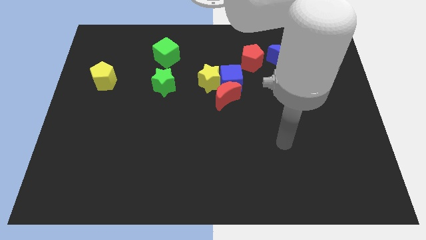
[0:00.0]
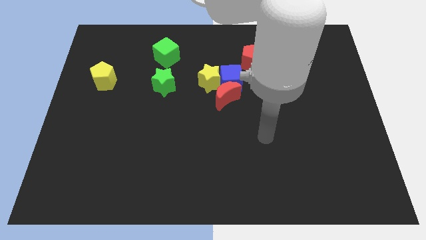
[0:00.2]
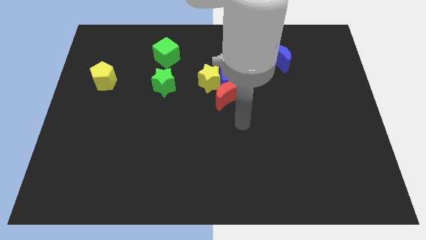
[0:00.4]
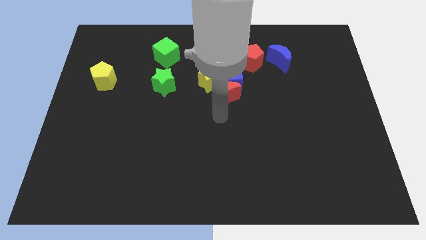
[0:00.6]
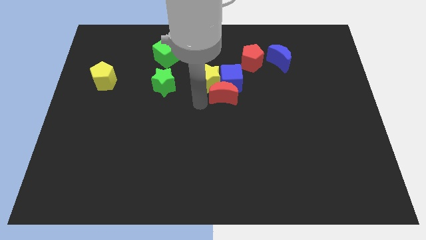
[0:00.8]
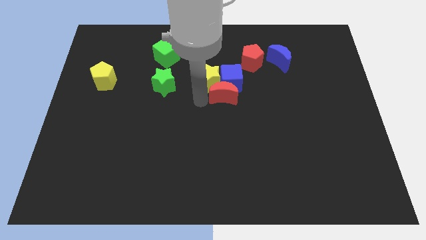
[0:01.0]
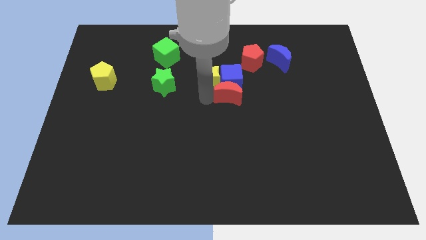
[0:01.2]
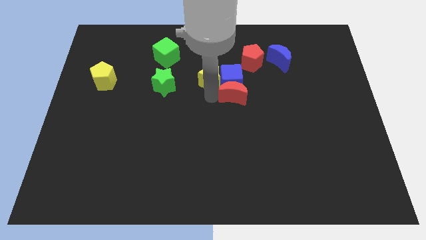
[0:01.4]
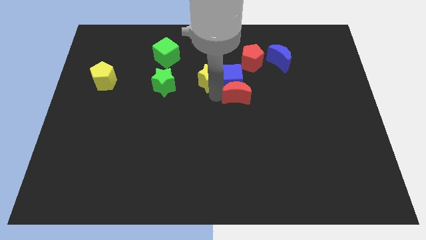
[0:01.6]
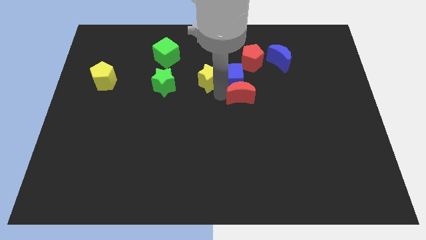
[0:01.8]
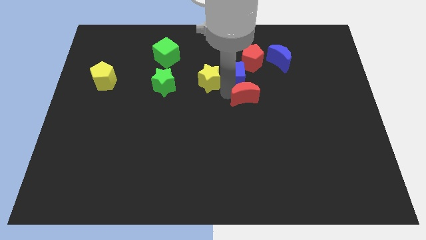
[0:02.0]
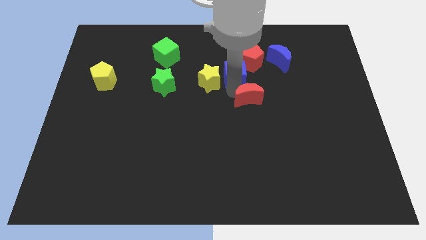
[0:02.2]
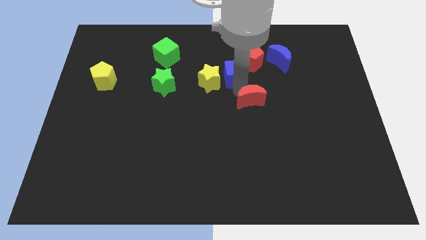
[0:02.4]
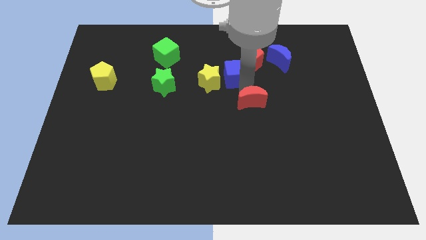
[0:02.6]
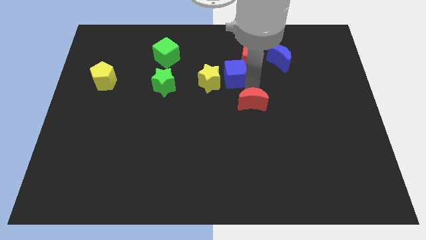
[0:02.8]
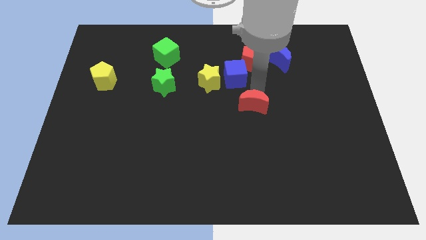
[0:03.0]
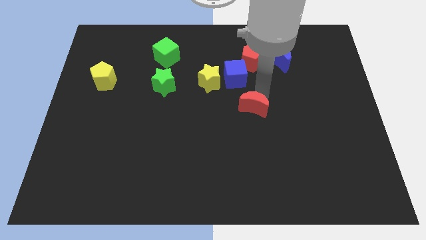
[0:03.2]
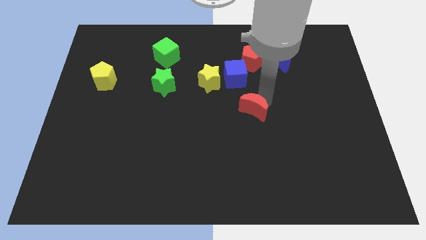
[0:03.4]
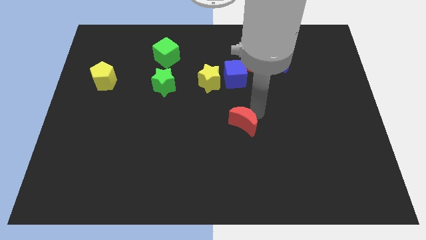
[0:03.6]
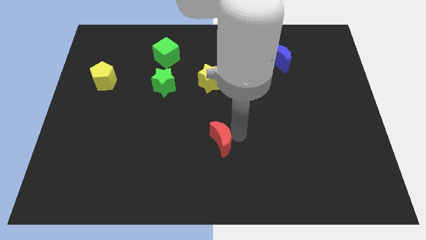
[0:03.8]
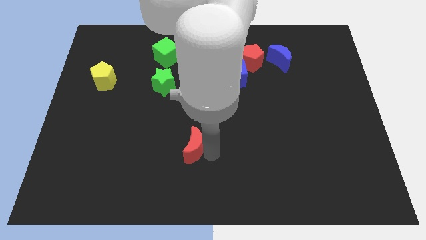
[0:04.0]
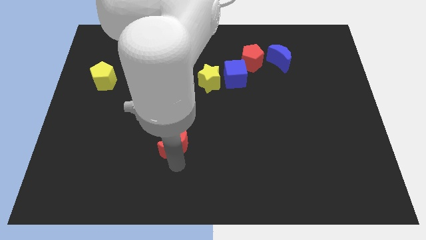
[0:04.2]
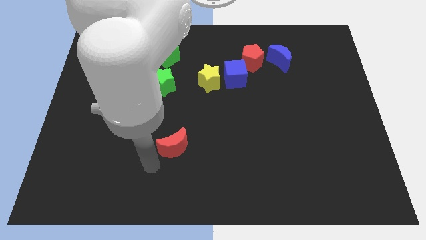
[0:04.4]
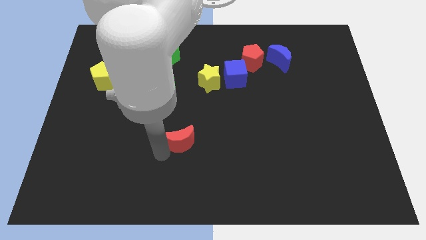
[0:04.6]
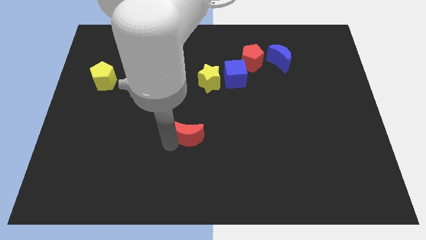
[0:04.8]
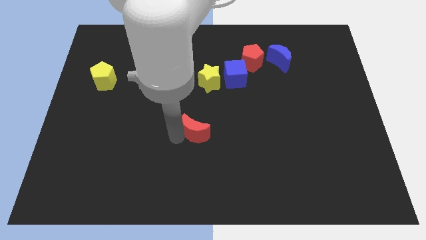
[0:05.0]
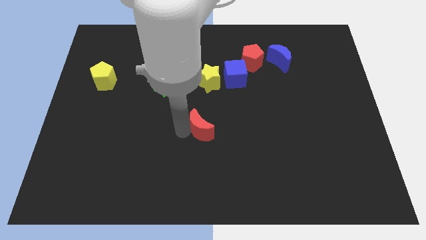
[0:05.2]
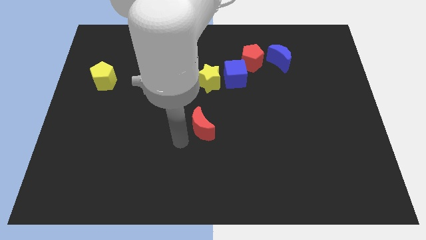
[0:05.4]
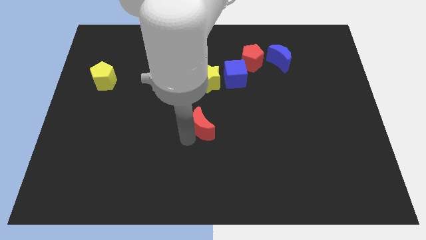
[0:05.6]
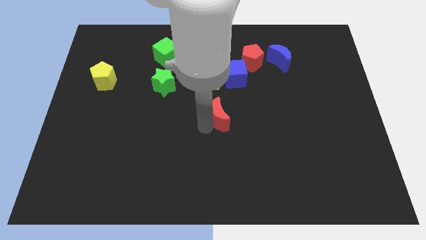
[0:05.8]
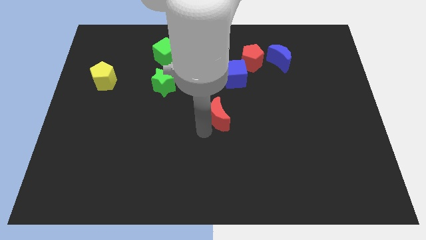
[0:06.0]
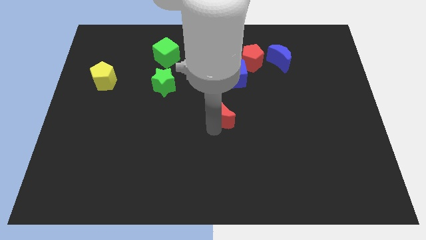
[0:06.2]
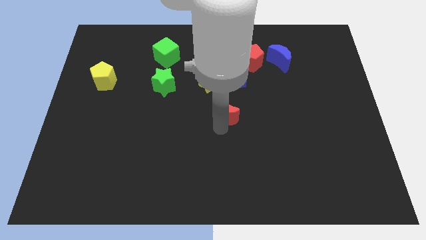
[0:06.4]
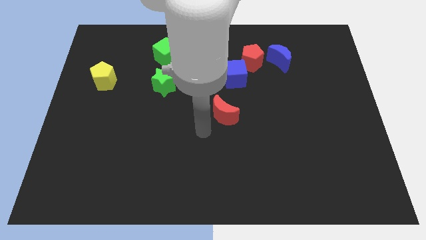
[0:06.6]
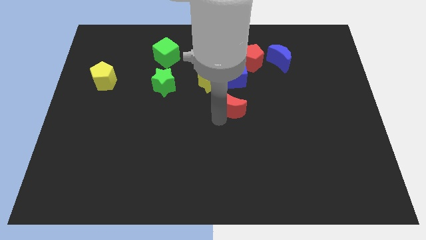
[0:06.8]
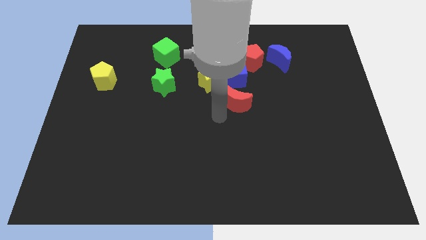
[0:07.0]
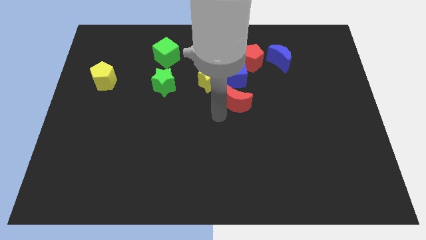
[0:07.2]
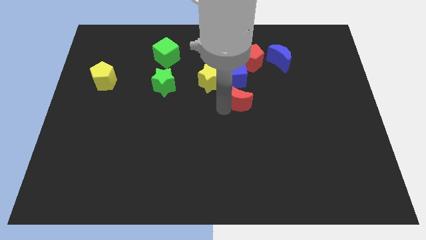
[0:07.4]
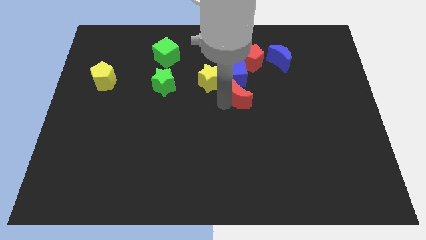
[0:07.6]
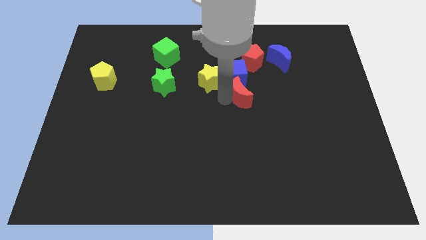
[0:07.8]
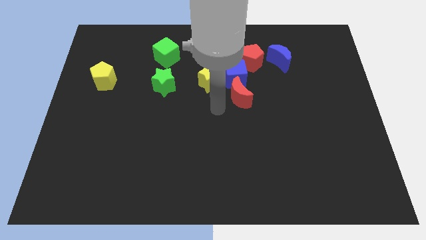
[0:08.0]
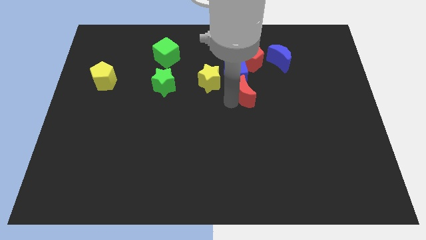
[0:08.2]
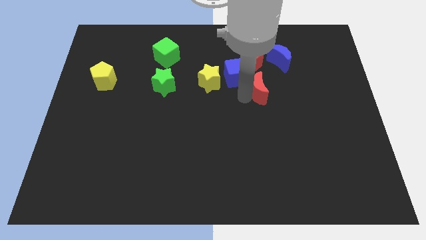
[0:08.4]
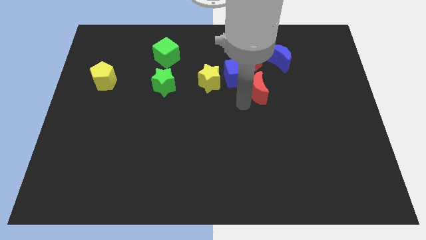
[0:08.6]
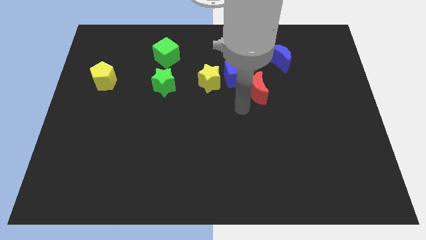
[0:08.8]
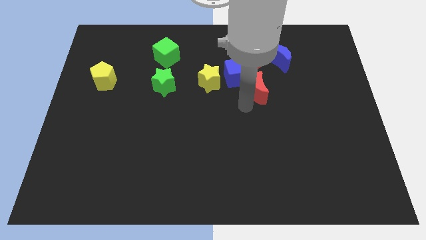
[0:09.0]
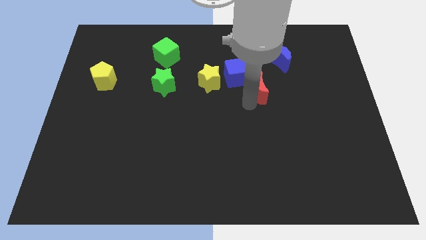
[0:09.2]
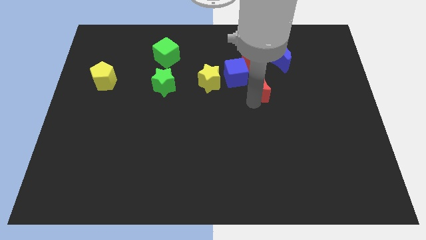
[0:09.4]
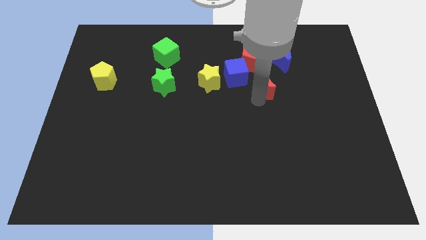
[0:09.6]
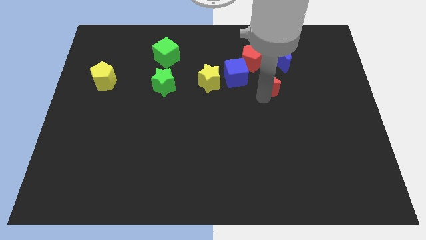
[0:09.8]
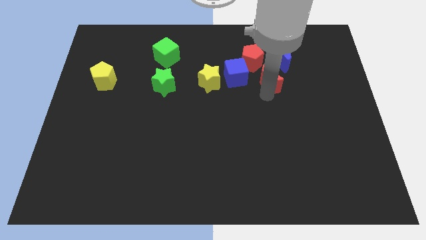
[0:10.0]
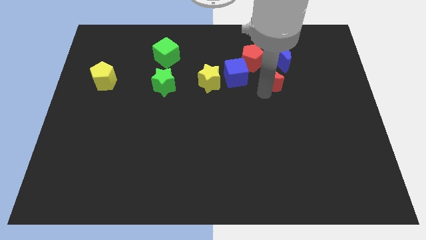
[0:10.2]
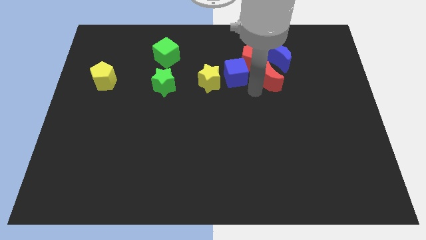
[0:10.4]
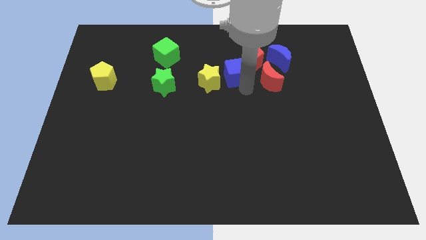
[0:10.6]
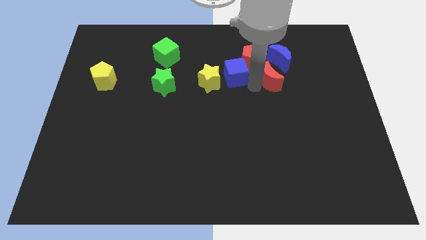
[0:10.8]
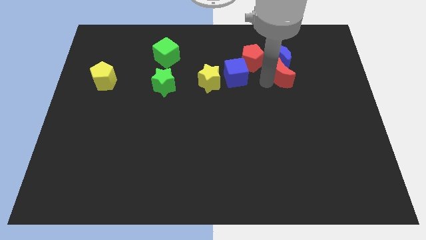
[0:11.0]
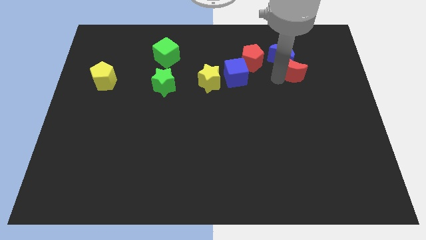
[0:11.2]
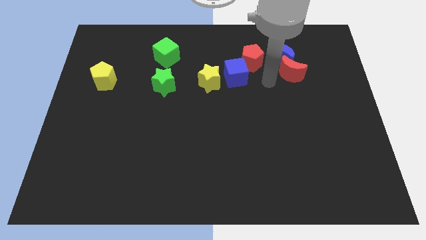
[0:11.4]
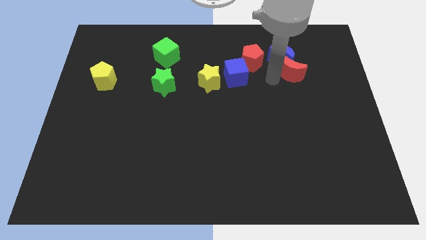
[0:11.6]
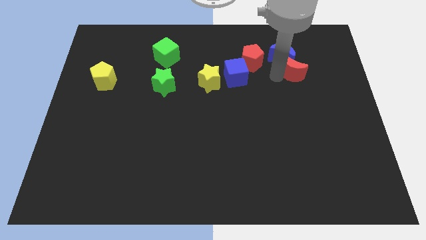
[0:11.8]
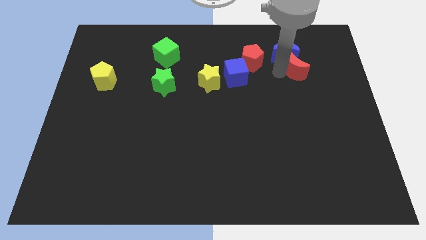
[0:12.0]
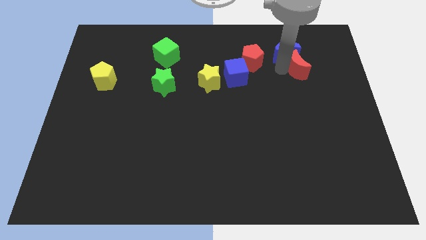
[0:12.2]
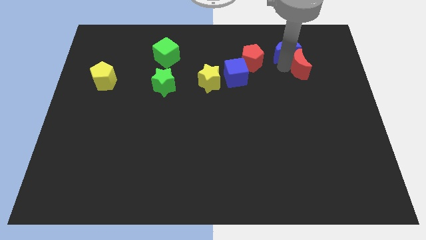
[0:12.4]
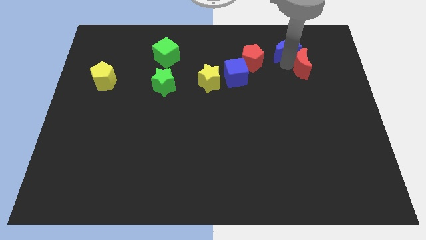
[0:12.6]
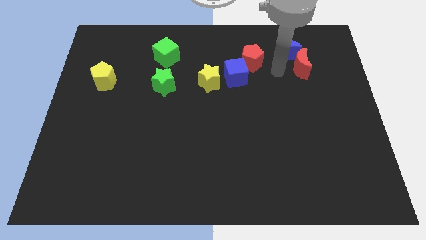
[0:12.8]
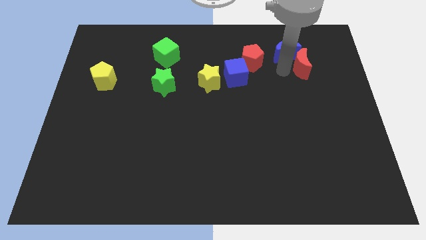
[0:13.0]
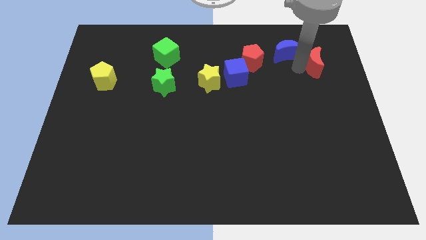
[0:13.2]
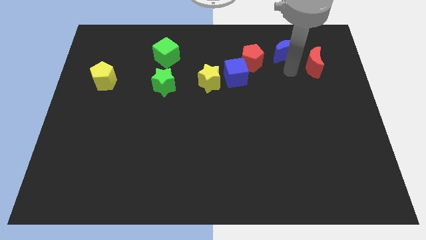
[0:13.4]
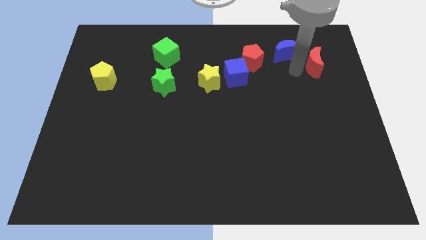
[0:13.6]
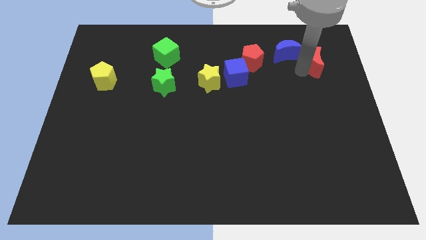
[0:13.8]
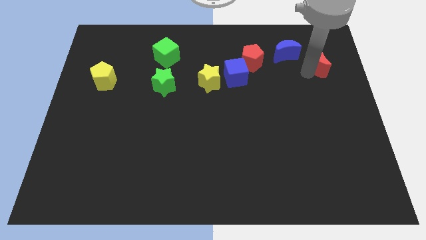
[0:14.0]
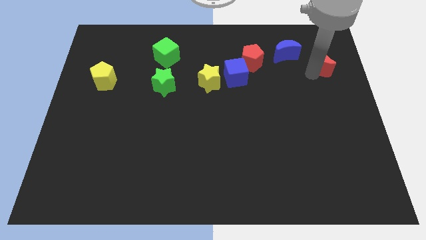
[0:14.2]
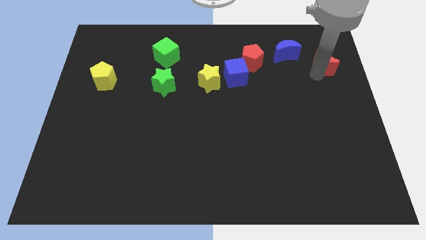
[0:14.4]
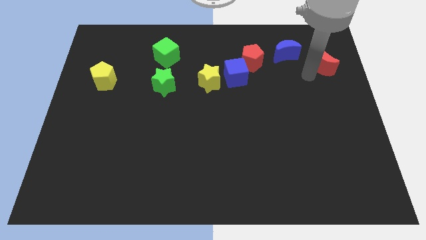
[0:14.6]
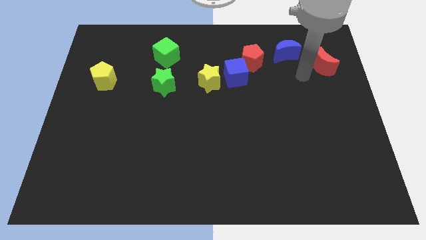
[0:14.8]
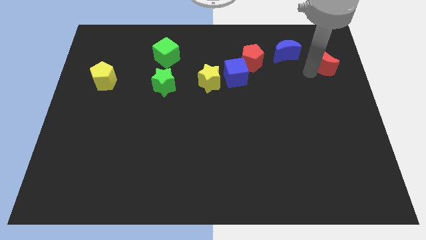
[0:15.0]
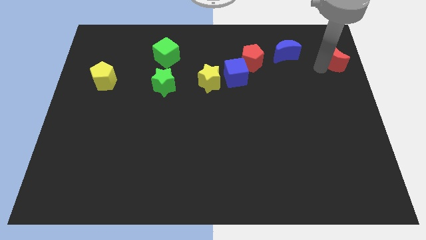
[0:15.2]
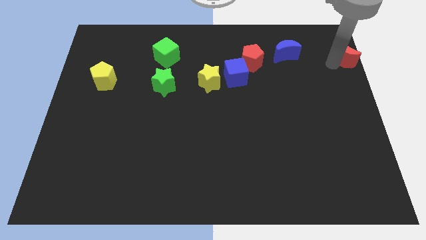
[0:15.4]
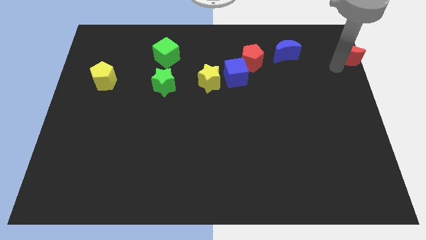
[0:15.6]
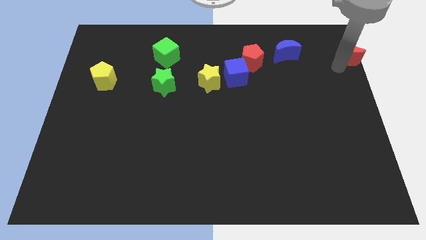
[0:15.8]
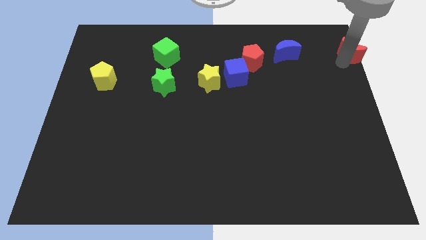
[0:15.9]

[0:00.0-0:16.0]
push the red moon to the top right of the board
